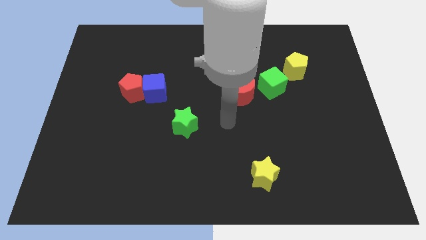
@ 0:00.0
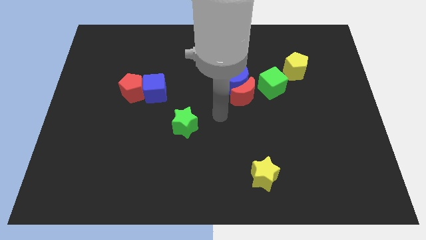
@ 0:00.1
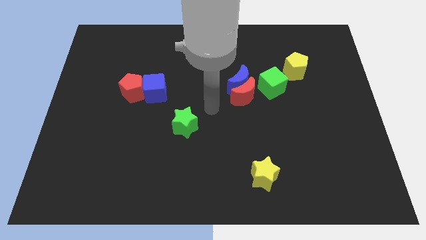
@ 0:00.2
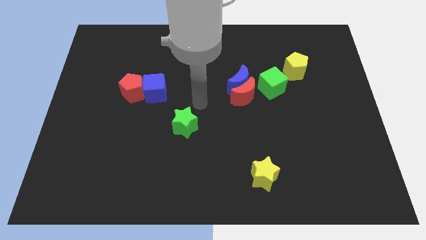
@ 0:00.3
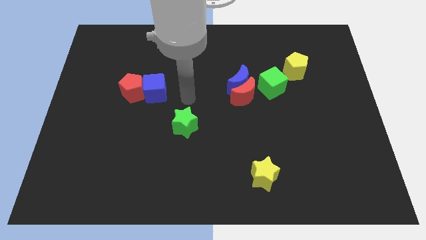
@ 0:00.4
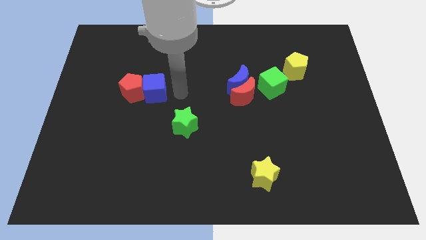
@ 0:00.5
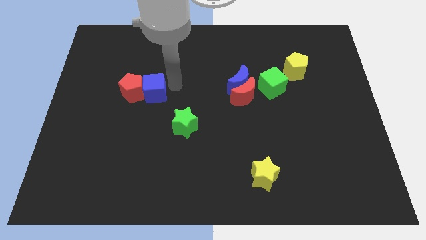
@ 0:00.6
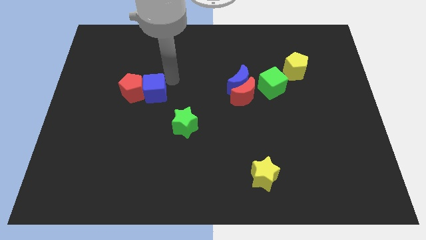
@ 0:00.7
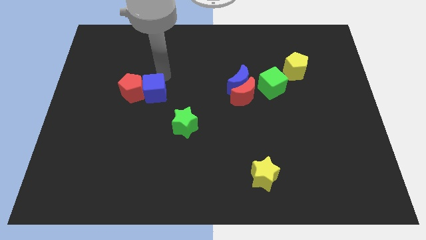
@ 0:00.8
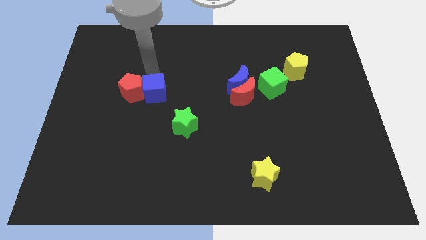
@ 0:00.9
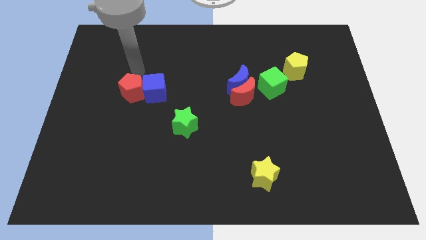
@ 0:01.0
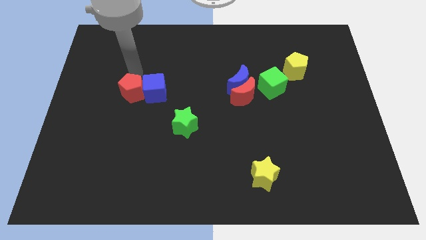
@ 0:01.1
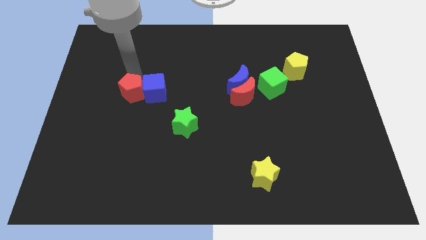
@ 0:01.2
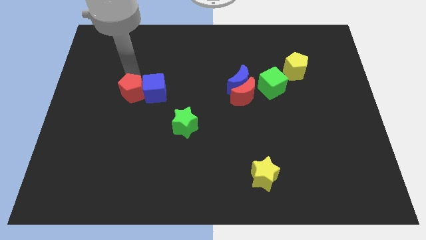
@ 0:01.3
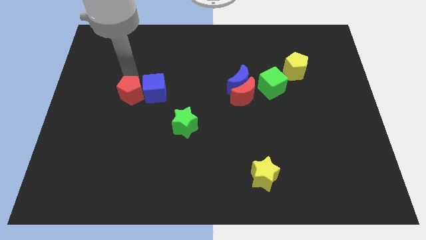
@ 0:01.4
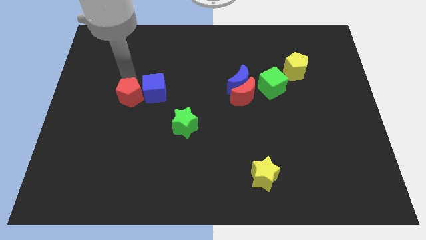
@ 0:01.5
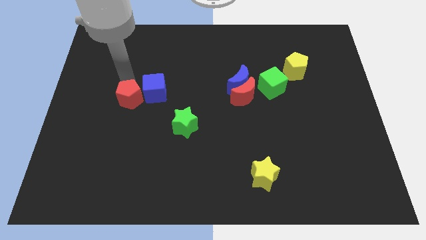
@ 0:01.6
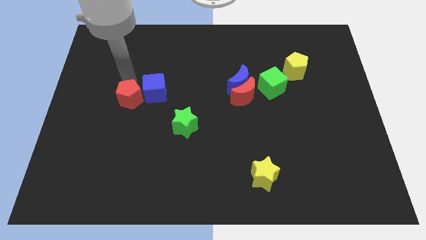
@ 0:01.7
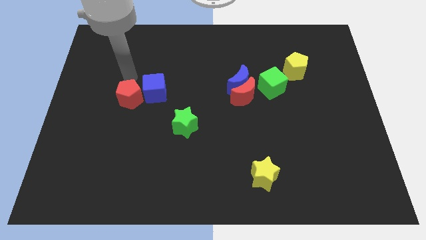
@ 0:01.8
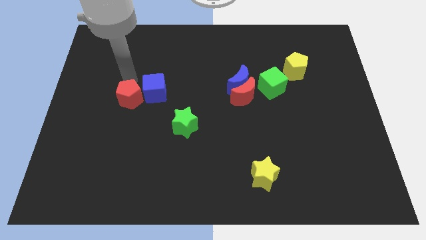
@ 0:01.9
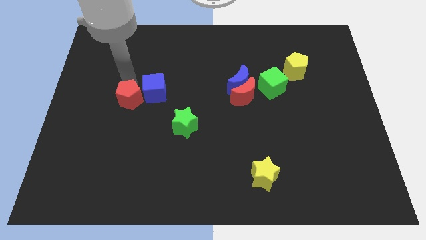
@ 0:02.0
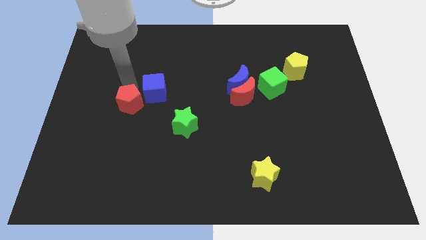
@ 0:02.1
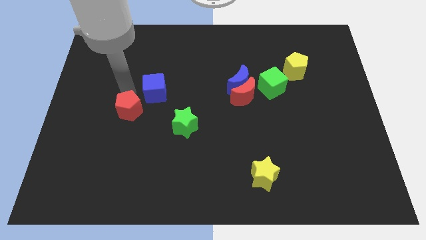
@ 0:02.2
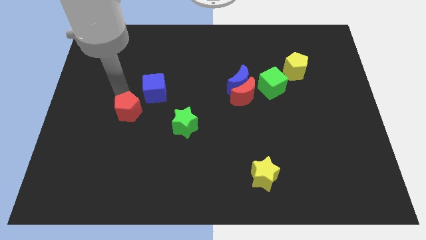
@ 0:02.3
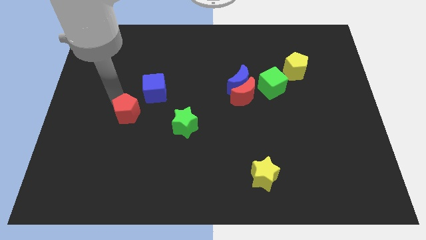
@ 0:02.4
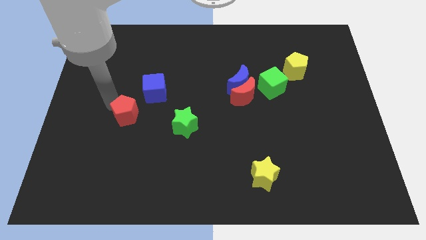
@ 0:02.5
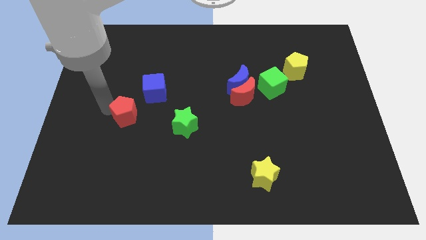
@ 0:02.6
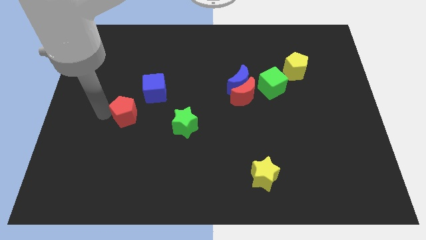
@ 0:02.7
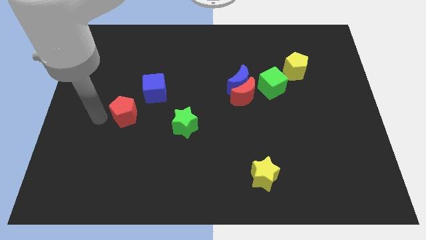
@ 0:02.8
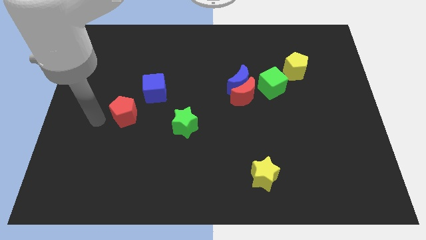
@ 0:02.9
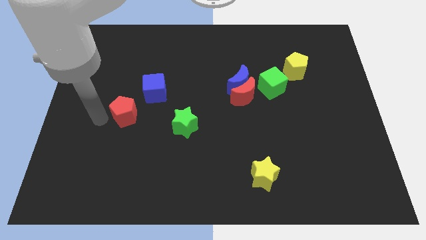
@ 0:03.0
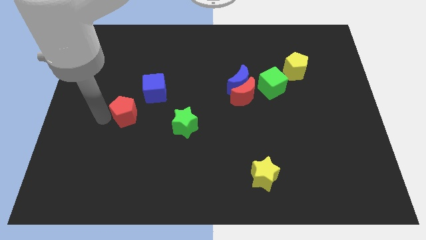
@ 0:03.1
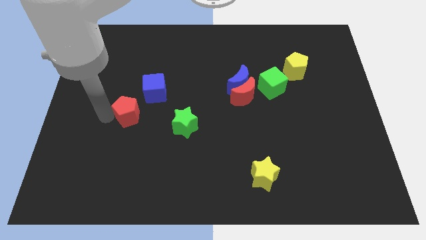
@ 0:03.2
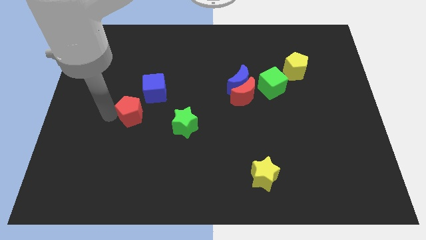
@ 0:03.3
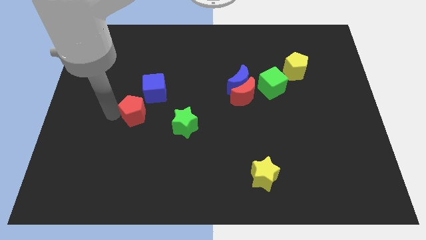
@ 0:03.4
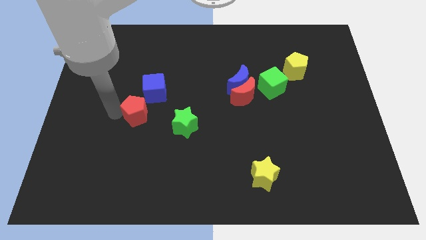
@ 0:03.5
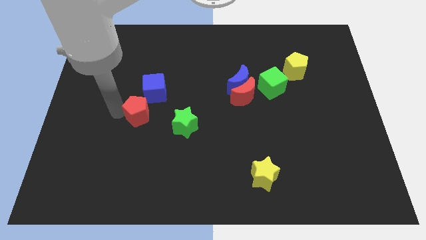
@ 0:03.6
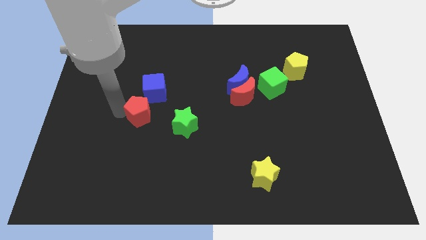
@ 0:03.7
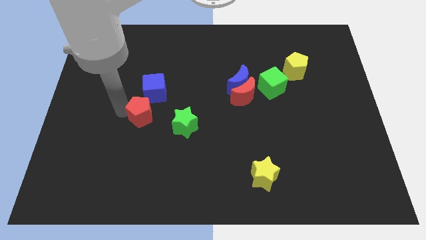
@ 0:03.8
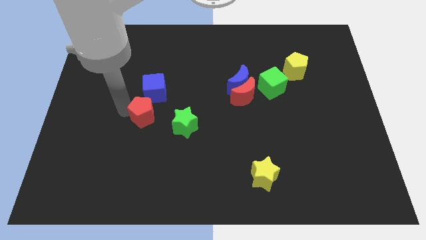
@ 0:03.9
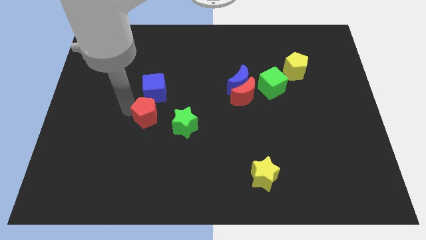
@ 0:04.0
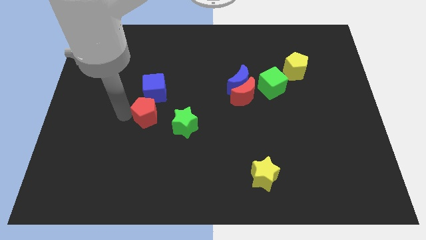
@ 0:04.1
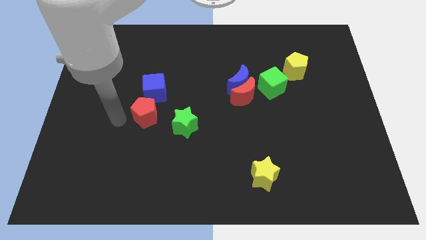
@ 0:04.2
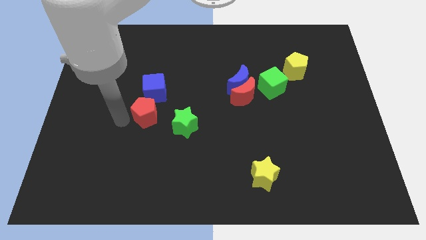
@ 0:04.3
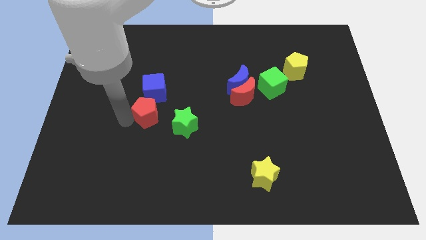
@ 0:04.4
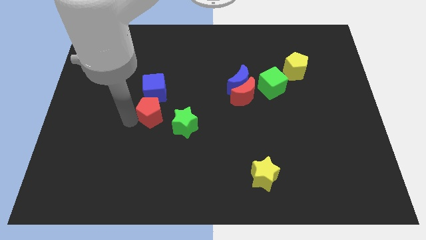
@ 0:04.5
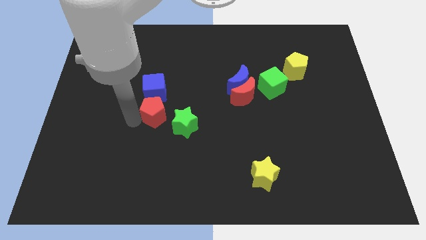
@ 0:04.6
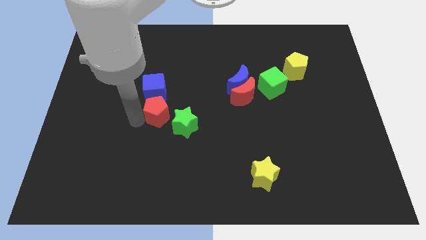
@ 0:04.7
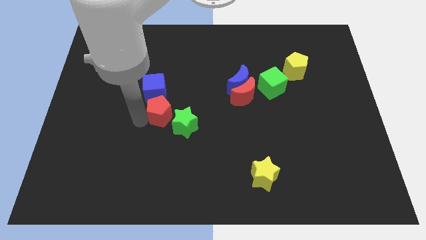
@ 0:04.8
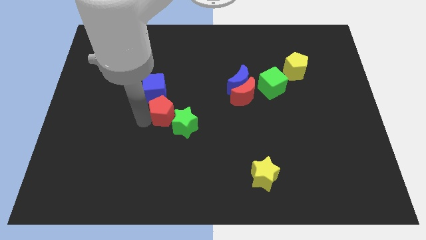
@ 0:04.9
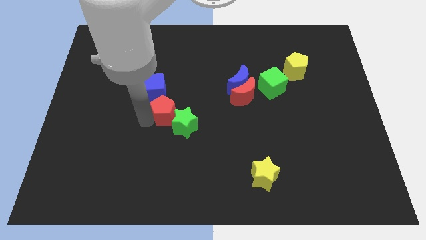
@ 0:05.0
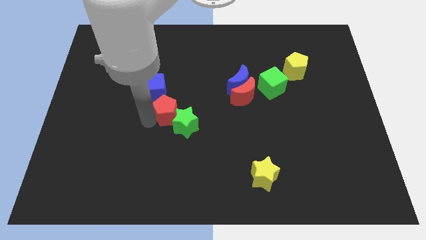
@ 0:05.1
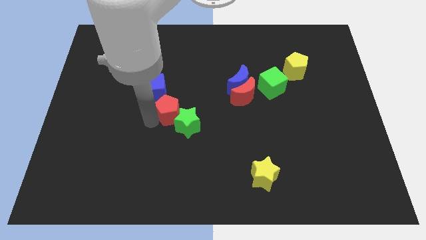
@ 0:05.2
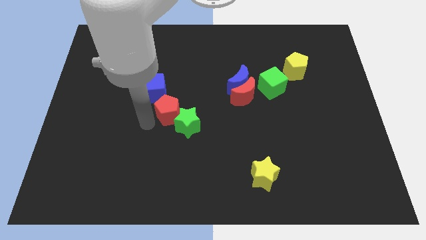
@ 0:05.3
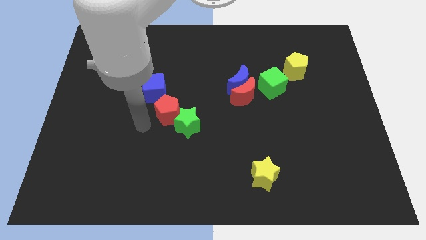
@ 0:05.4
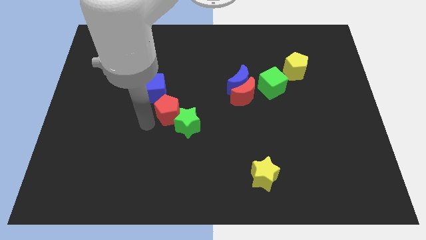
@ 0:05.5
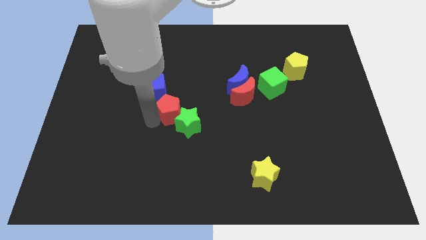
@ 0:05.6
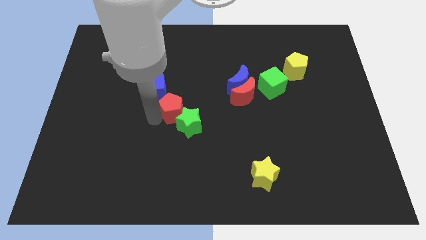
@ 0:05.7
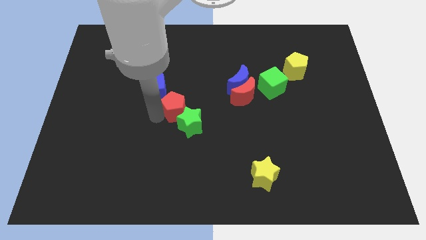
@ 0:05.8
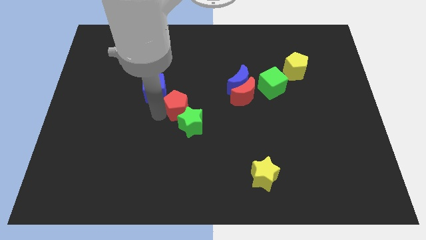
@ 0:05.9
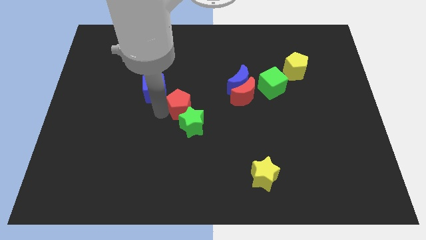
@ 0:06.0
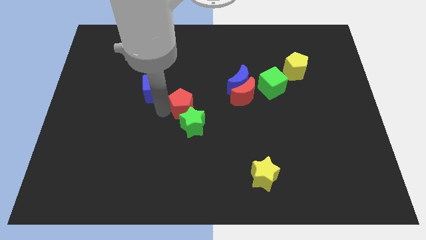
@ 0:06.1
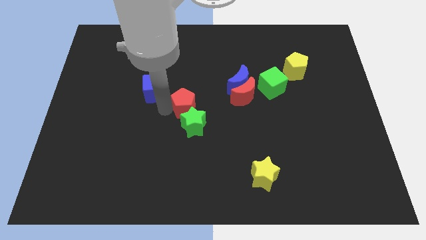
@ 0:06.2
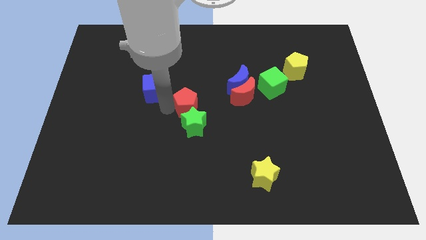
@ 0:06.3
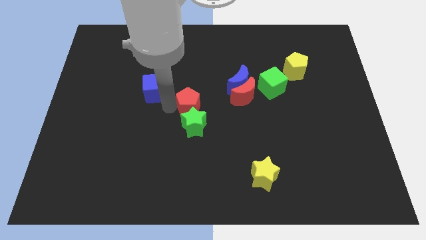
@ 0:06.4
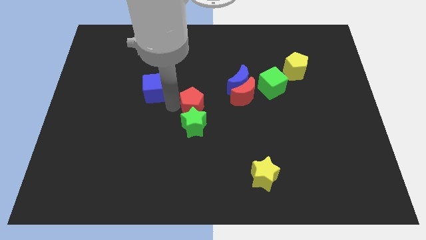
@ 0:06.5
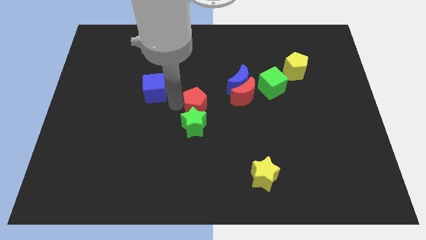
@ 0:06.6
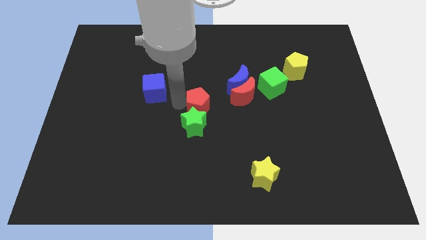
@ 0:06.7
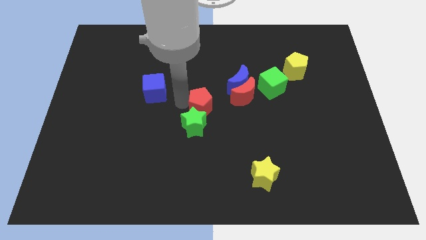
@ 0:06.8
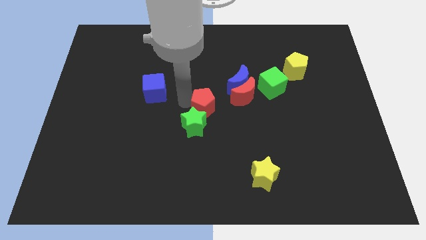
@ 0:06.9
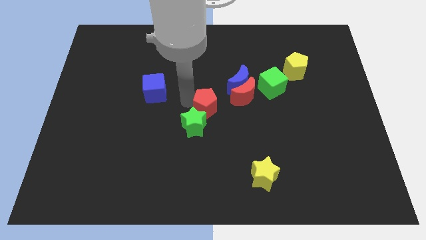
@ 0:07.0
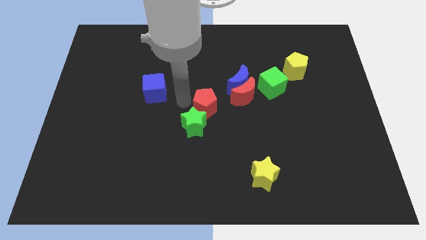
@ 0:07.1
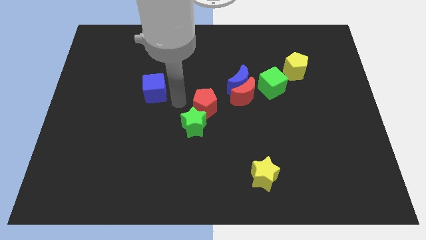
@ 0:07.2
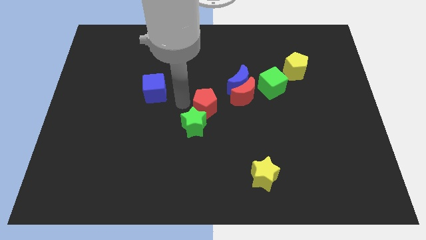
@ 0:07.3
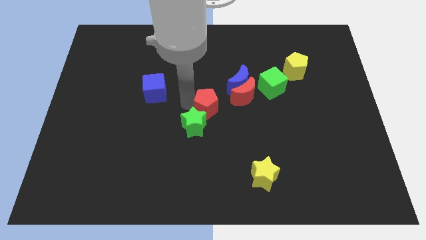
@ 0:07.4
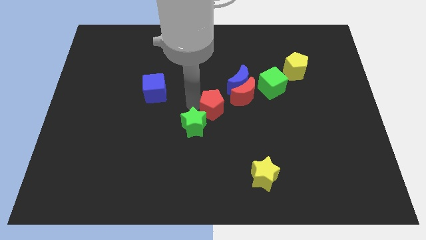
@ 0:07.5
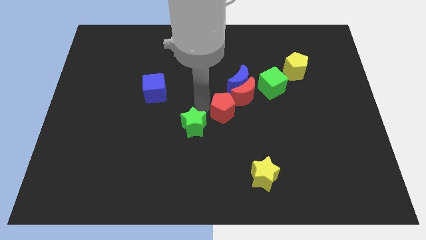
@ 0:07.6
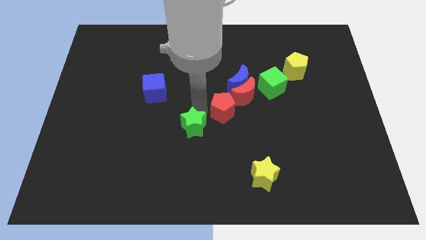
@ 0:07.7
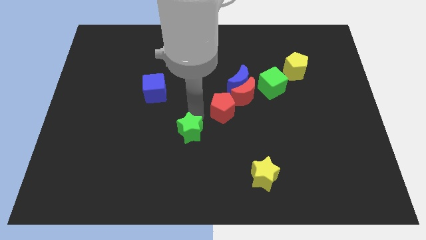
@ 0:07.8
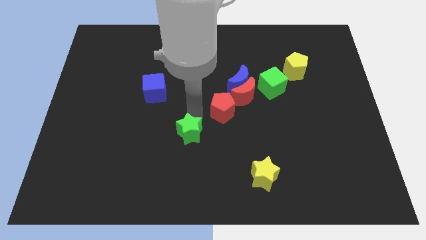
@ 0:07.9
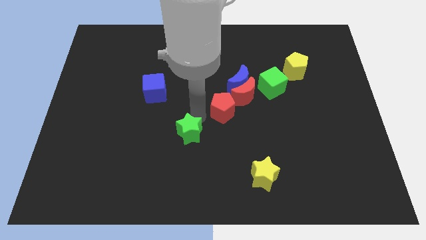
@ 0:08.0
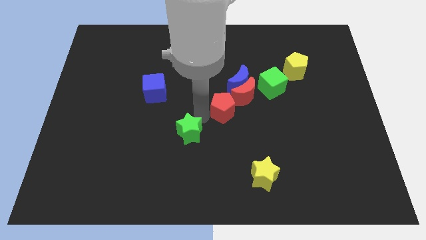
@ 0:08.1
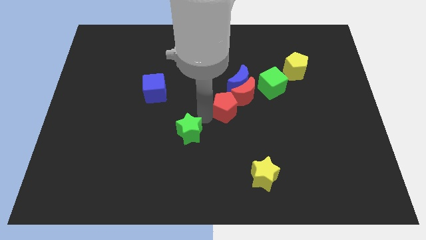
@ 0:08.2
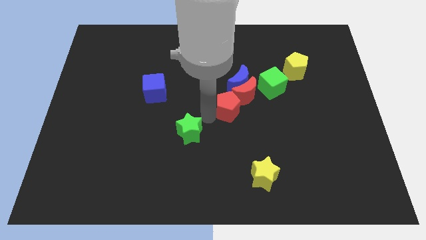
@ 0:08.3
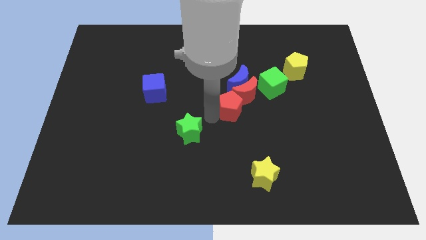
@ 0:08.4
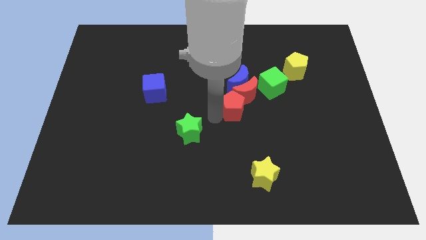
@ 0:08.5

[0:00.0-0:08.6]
slide the red pentagon to the bottom left side of the green cube
